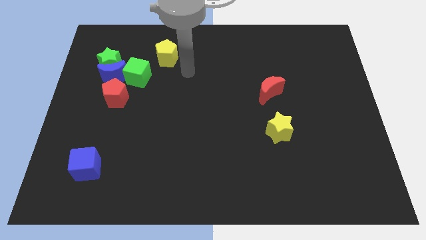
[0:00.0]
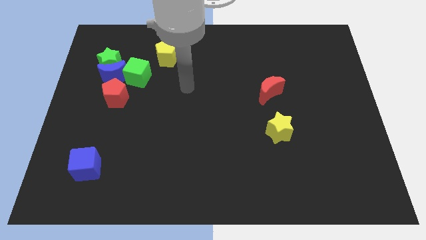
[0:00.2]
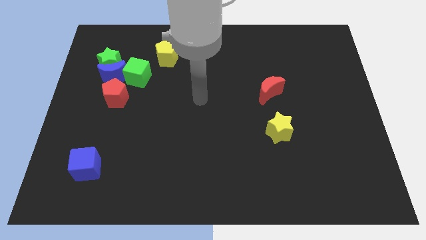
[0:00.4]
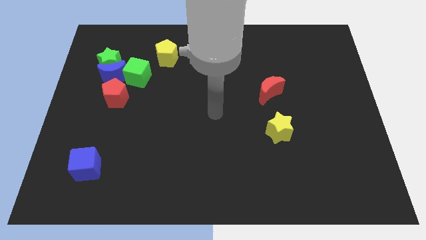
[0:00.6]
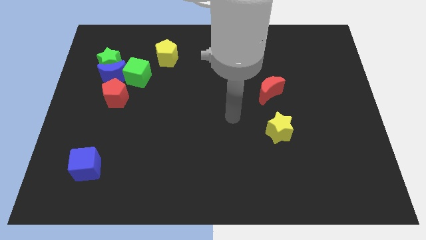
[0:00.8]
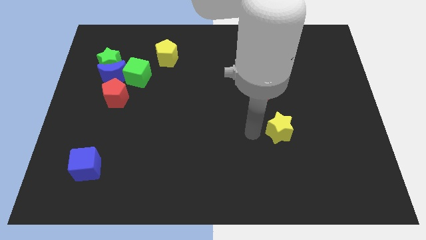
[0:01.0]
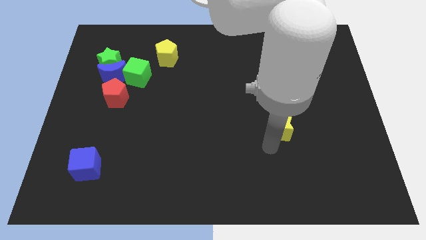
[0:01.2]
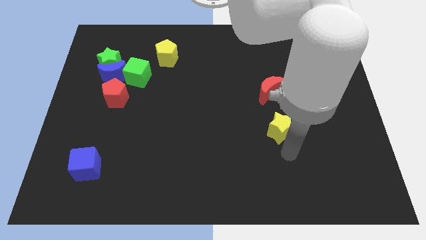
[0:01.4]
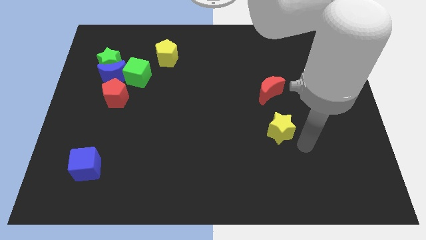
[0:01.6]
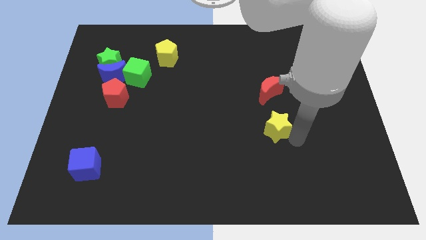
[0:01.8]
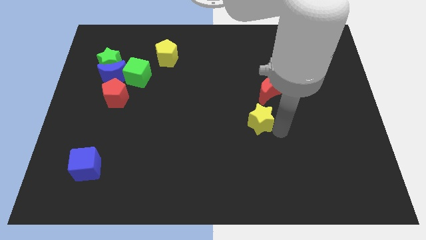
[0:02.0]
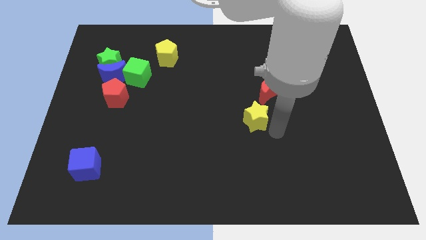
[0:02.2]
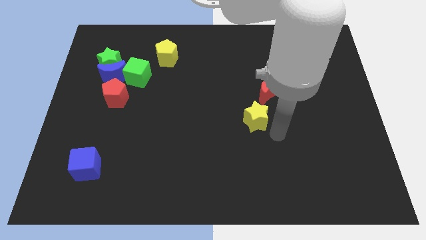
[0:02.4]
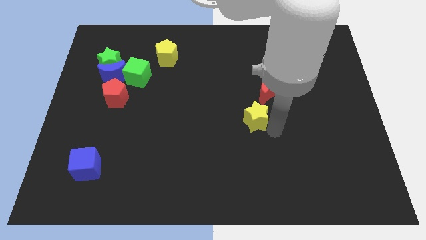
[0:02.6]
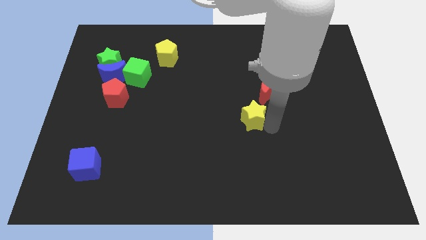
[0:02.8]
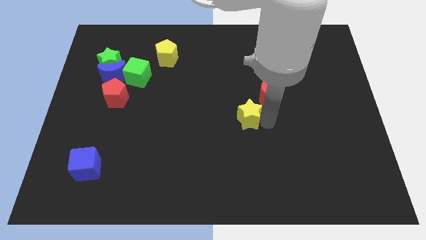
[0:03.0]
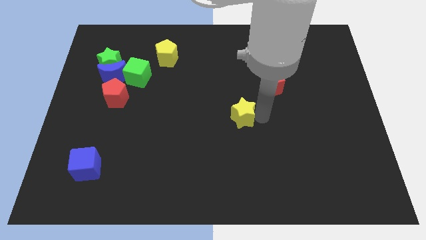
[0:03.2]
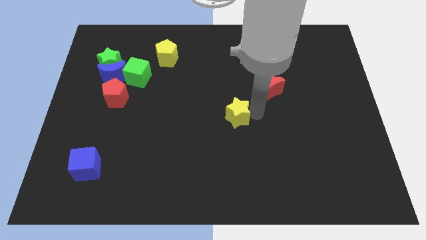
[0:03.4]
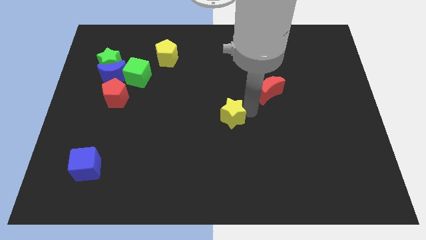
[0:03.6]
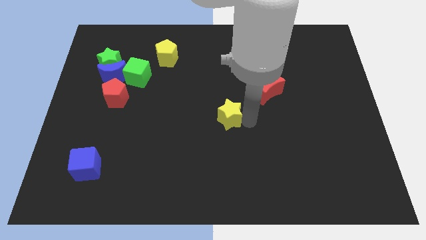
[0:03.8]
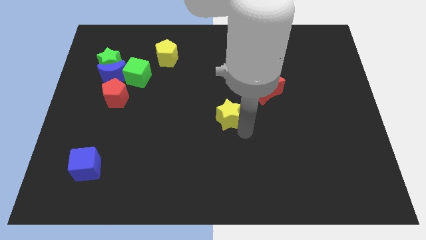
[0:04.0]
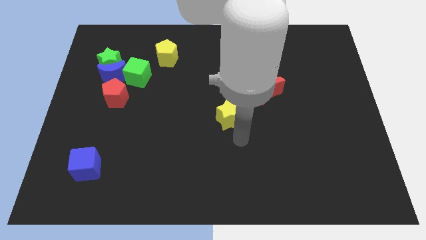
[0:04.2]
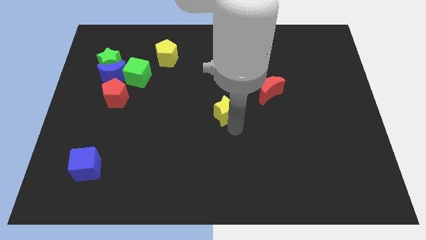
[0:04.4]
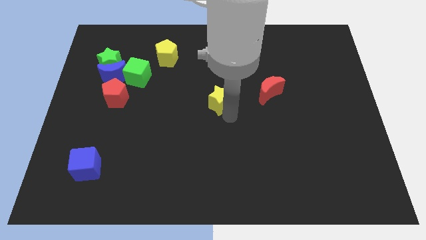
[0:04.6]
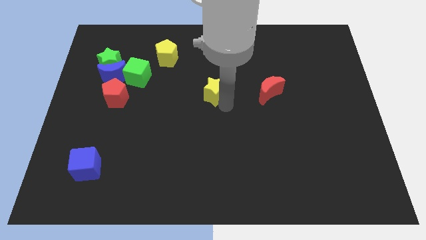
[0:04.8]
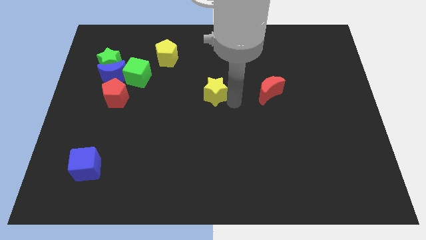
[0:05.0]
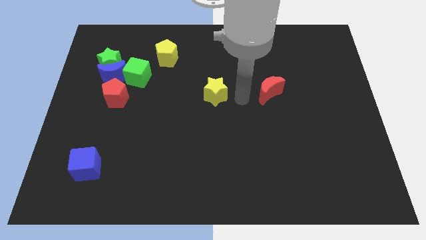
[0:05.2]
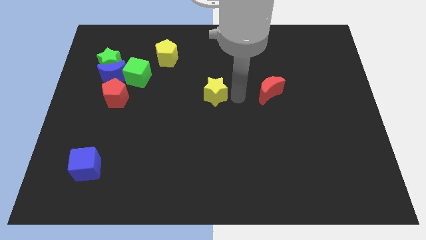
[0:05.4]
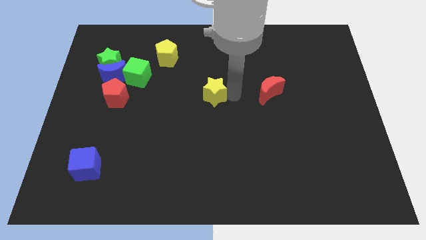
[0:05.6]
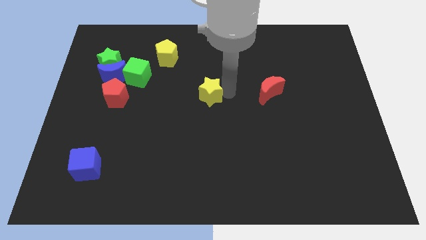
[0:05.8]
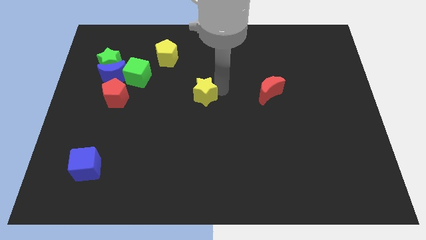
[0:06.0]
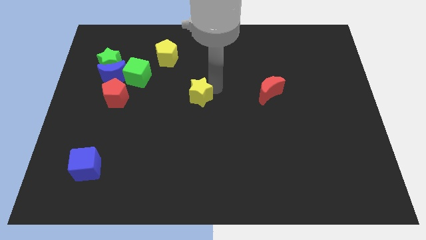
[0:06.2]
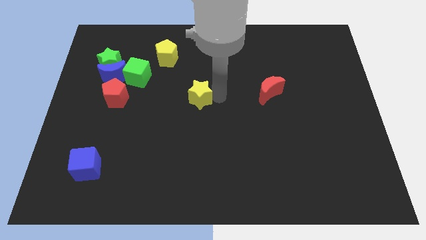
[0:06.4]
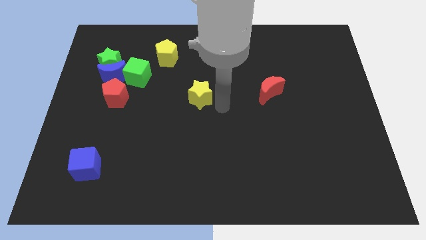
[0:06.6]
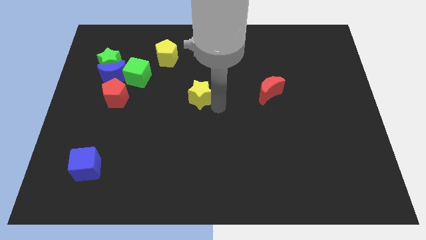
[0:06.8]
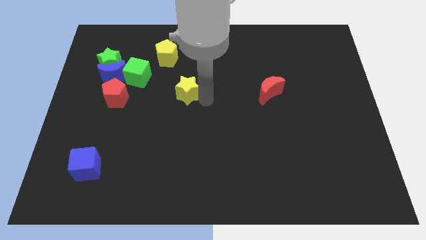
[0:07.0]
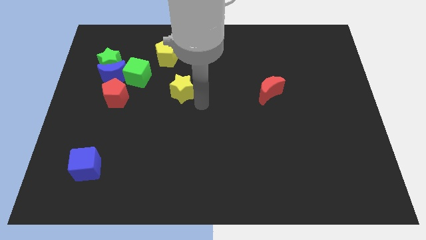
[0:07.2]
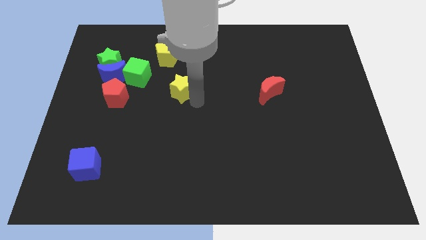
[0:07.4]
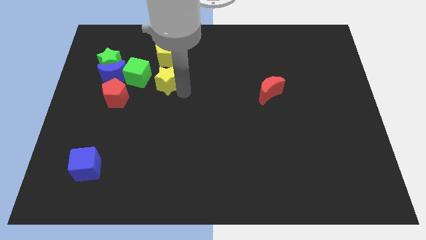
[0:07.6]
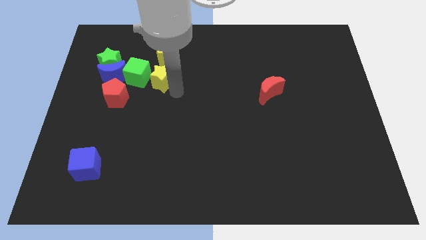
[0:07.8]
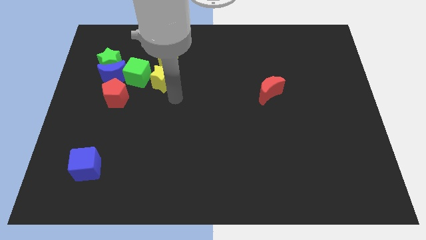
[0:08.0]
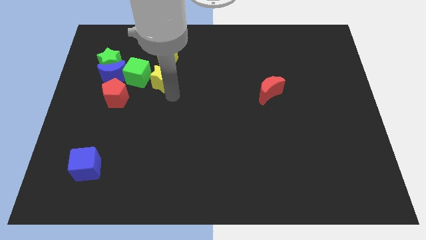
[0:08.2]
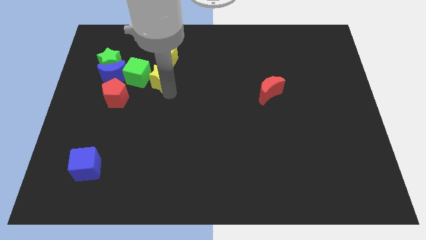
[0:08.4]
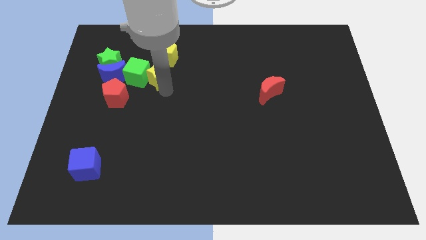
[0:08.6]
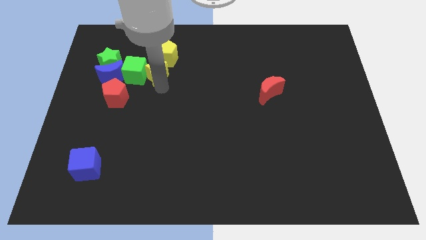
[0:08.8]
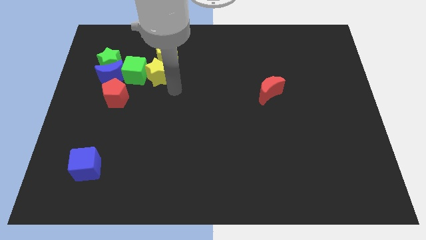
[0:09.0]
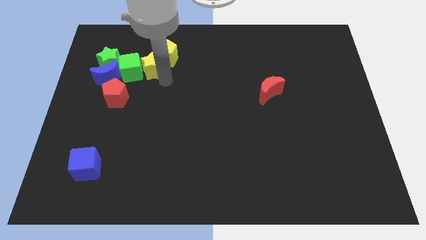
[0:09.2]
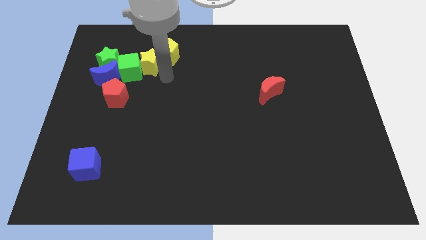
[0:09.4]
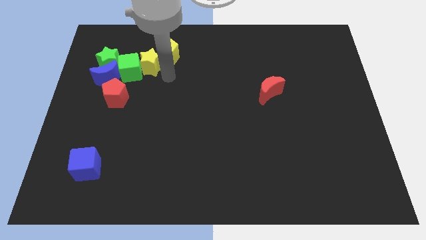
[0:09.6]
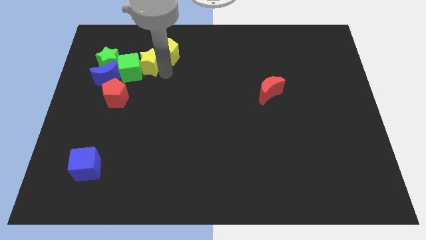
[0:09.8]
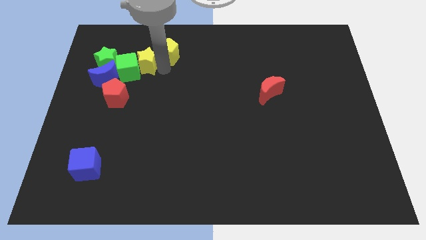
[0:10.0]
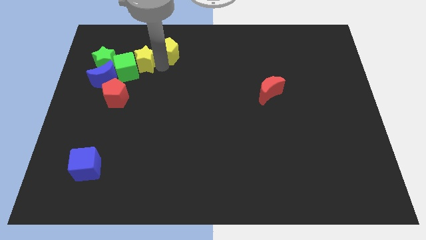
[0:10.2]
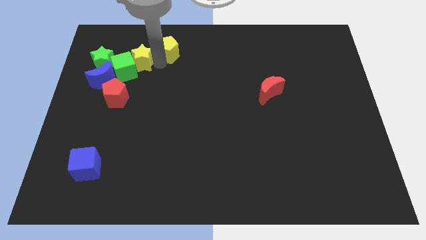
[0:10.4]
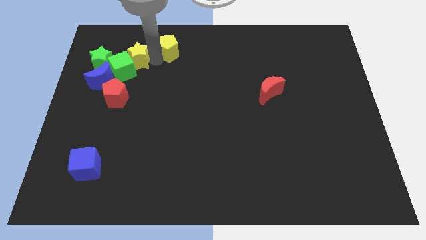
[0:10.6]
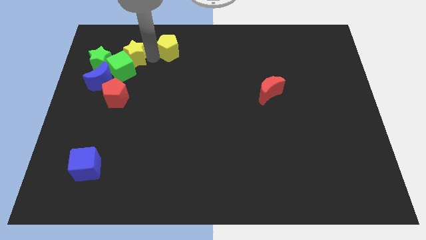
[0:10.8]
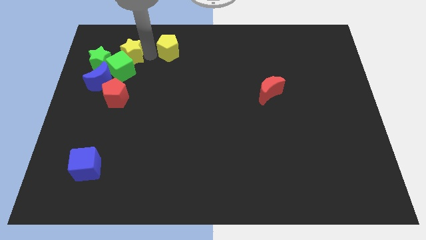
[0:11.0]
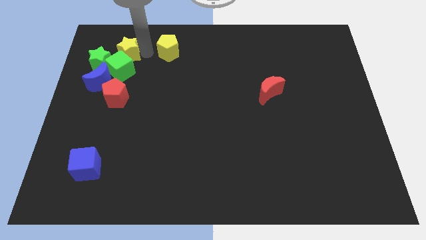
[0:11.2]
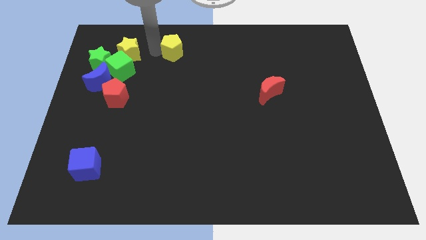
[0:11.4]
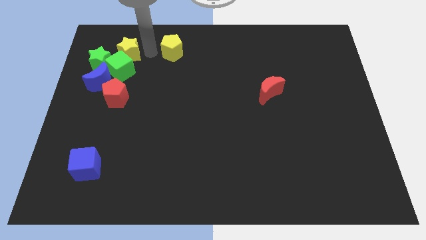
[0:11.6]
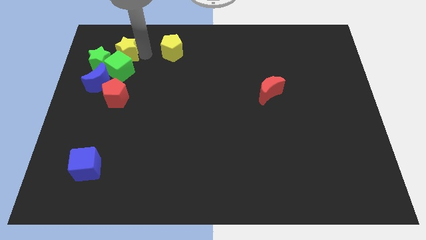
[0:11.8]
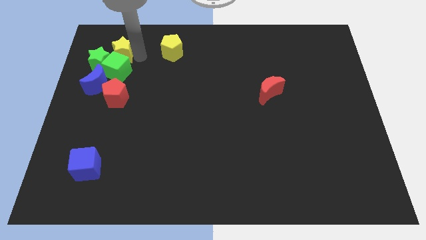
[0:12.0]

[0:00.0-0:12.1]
push the yellow star diagonally up and to the left of the green cube
